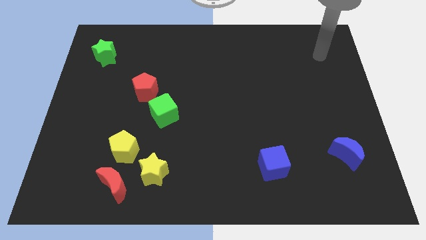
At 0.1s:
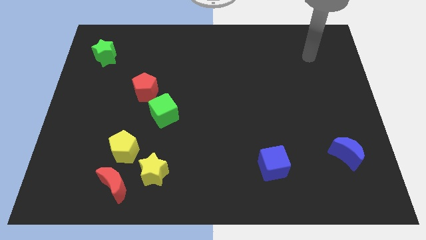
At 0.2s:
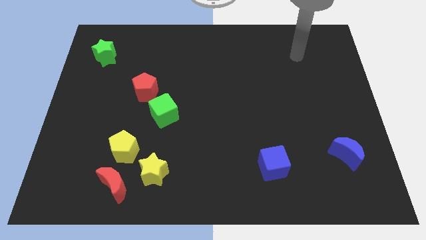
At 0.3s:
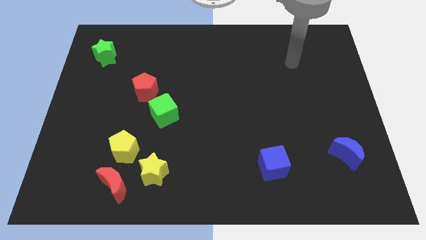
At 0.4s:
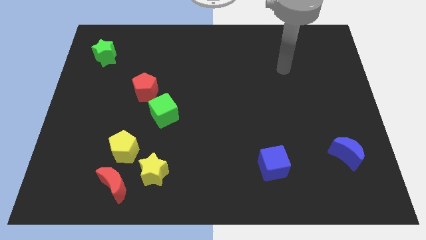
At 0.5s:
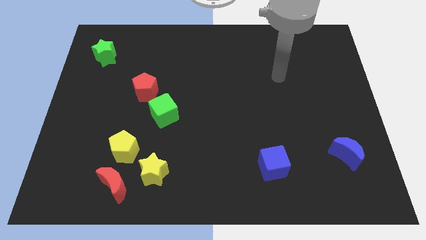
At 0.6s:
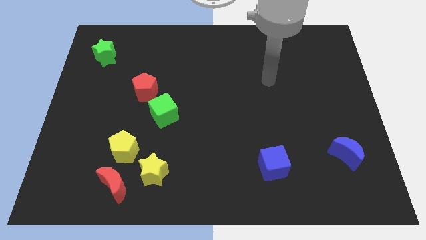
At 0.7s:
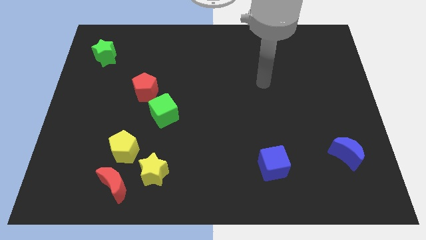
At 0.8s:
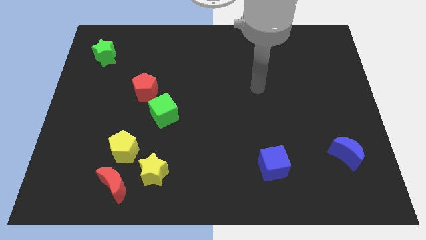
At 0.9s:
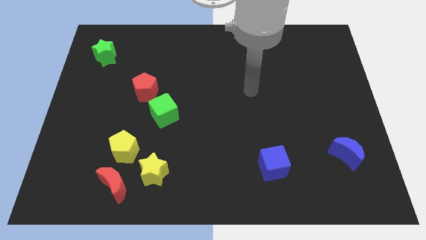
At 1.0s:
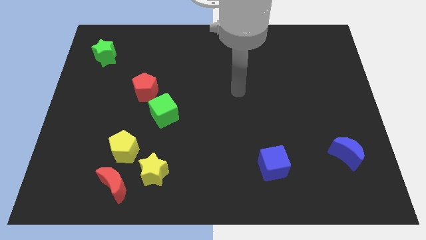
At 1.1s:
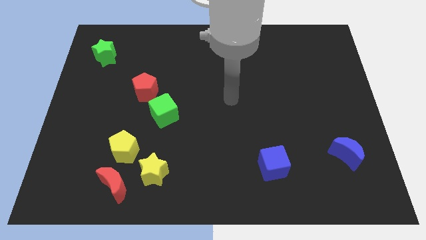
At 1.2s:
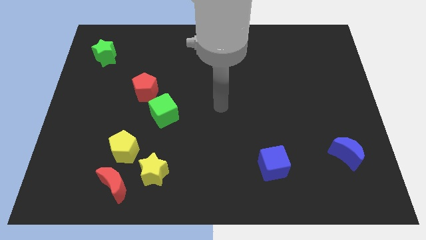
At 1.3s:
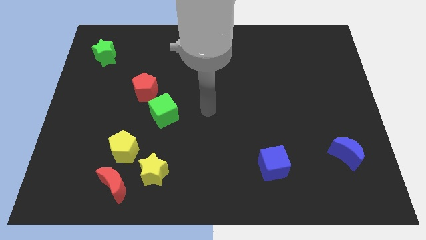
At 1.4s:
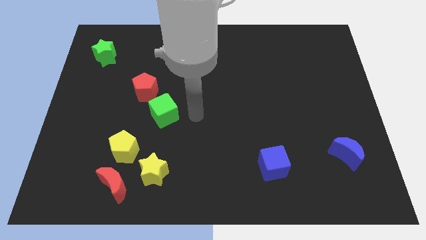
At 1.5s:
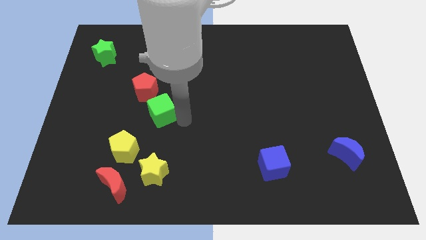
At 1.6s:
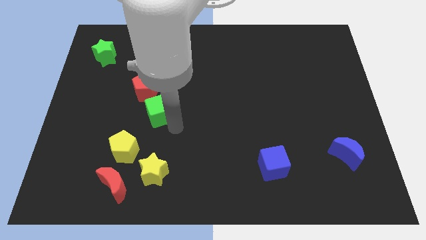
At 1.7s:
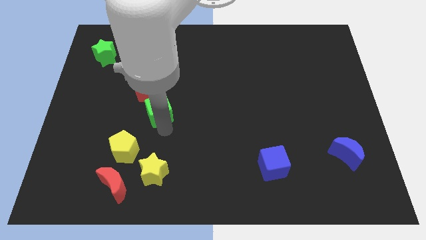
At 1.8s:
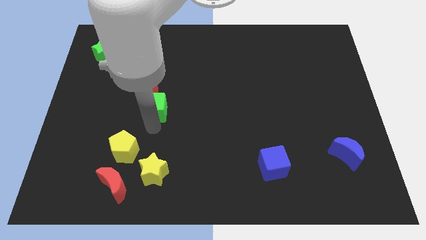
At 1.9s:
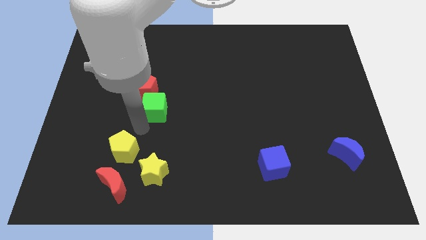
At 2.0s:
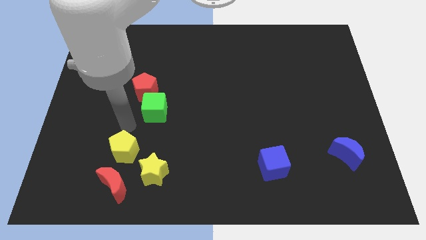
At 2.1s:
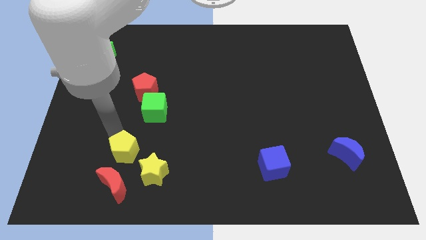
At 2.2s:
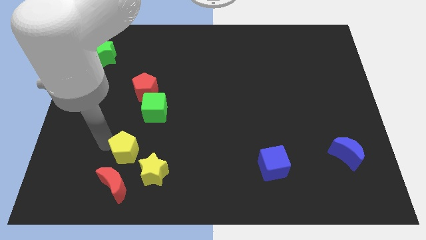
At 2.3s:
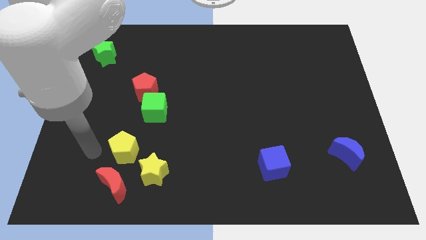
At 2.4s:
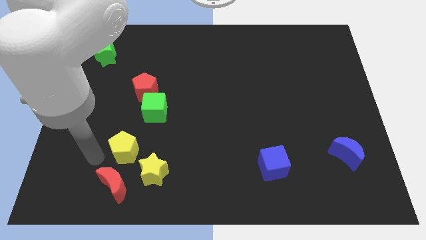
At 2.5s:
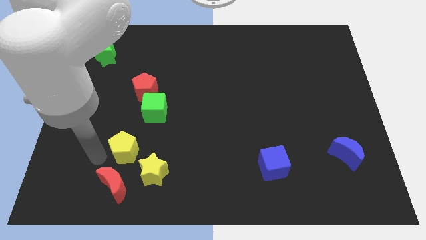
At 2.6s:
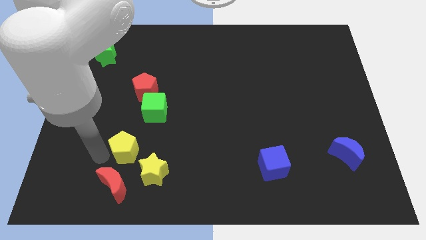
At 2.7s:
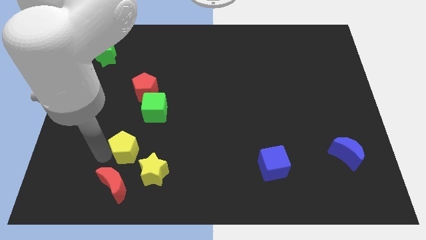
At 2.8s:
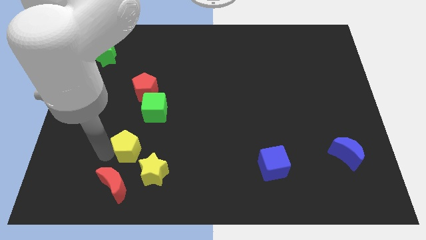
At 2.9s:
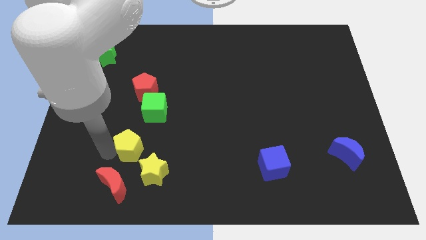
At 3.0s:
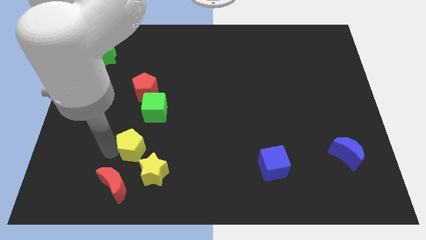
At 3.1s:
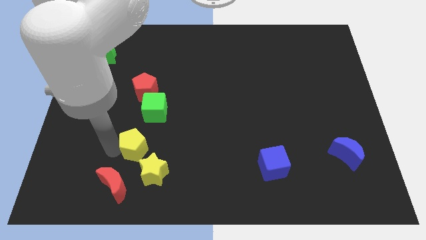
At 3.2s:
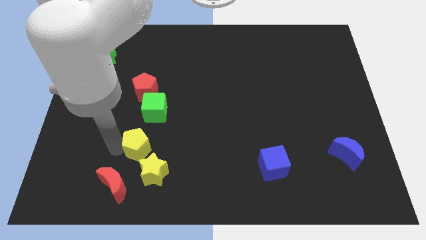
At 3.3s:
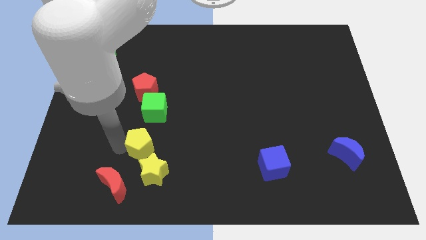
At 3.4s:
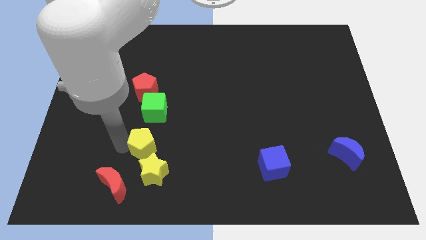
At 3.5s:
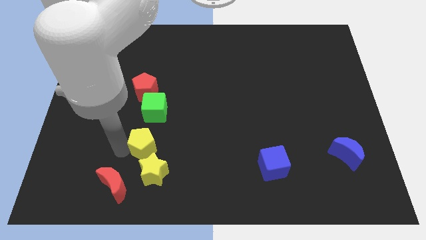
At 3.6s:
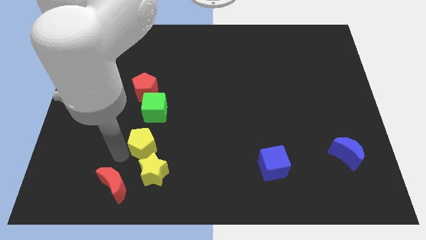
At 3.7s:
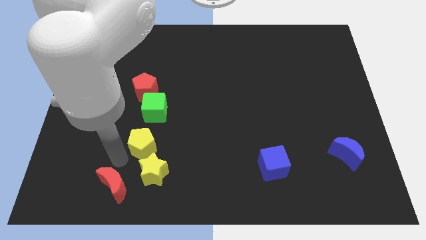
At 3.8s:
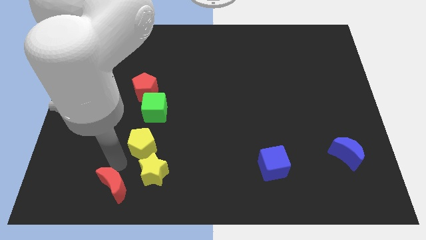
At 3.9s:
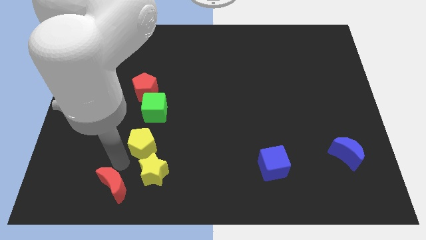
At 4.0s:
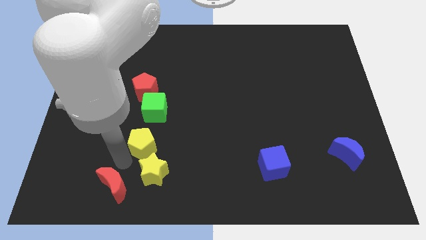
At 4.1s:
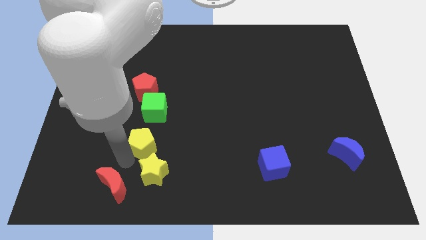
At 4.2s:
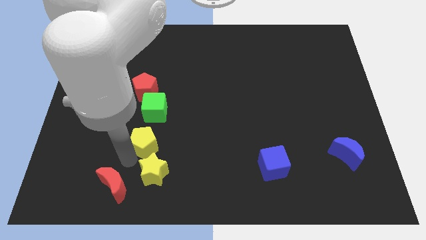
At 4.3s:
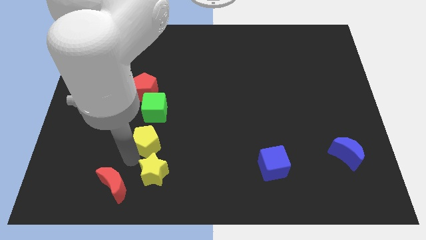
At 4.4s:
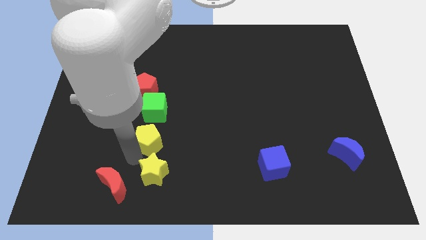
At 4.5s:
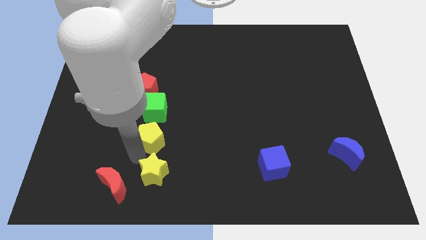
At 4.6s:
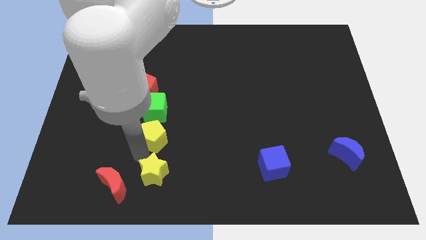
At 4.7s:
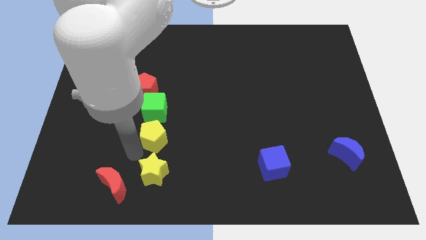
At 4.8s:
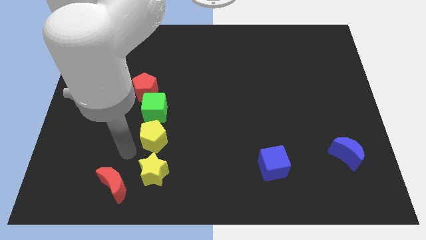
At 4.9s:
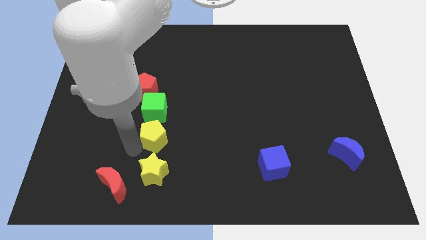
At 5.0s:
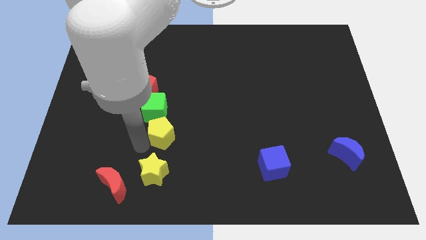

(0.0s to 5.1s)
slide the yellow pentagon somewhat up and then to the right

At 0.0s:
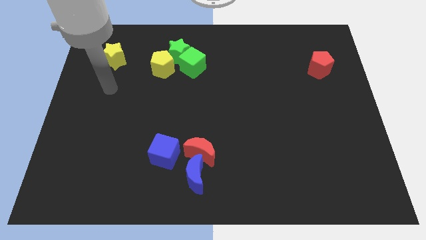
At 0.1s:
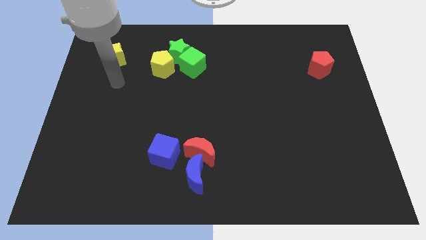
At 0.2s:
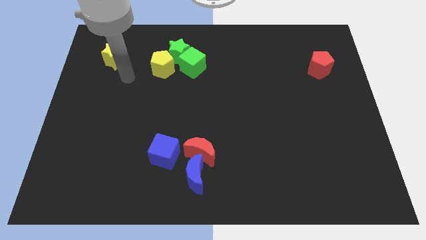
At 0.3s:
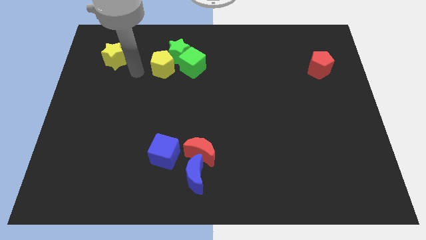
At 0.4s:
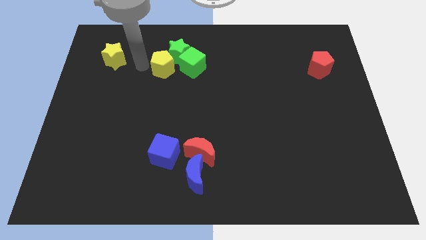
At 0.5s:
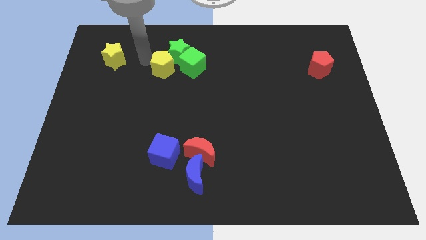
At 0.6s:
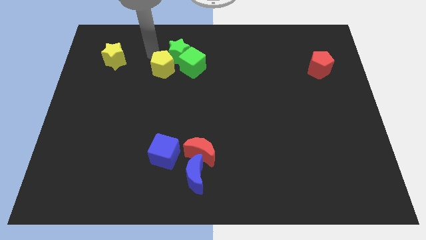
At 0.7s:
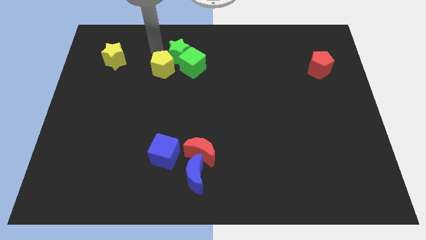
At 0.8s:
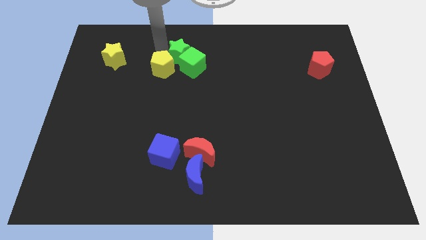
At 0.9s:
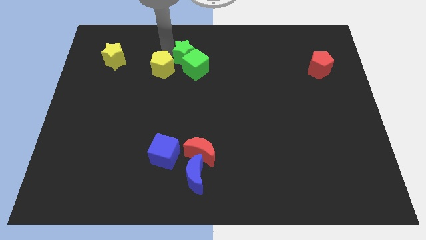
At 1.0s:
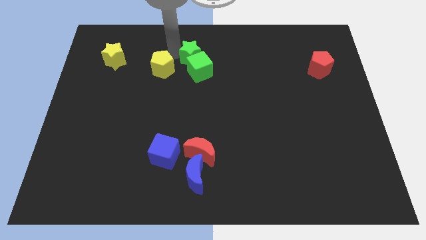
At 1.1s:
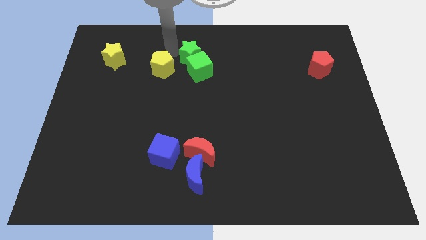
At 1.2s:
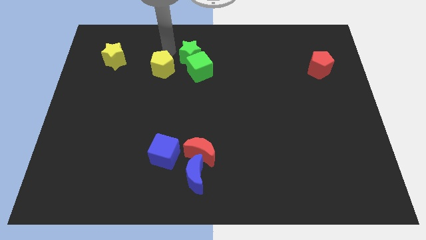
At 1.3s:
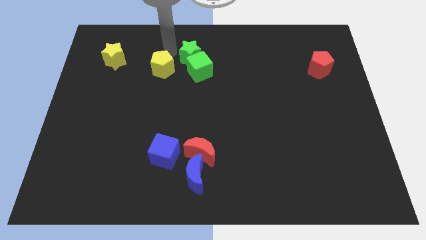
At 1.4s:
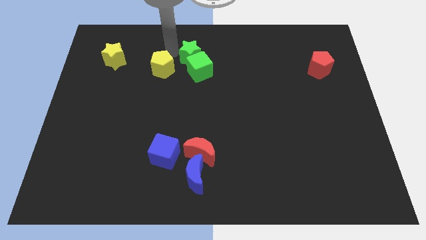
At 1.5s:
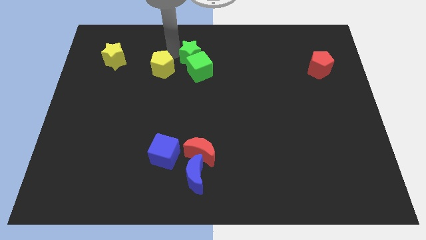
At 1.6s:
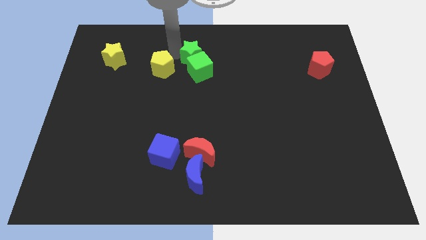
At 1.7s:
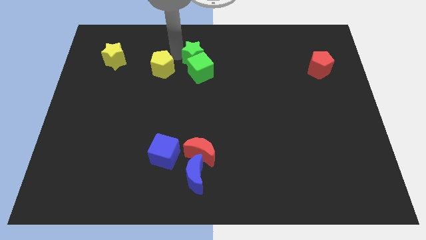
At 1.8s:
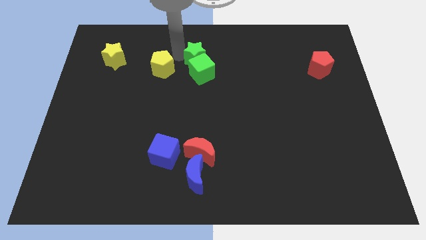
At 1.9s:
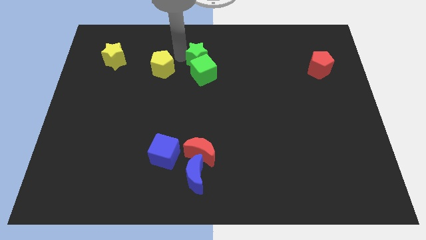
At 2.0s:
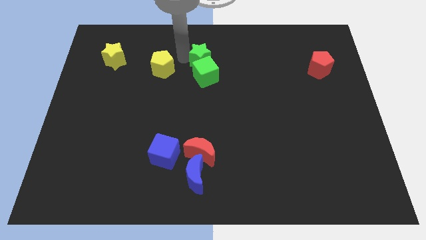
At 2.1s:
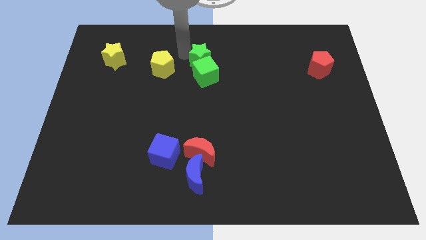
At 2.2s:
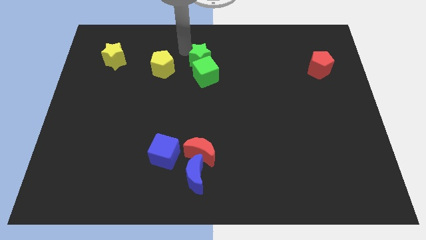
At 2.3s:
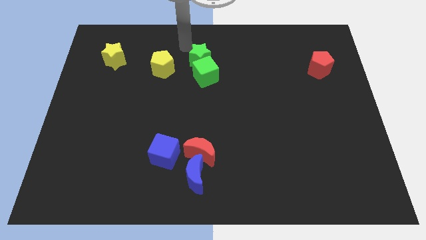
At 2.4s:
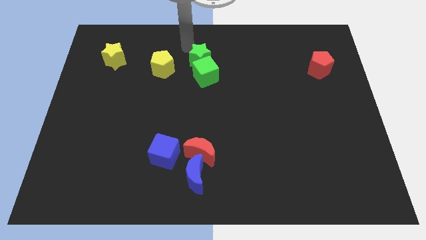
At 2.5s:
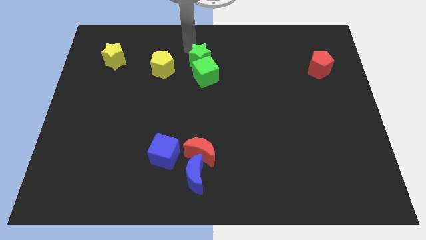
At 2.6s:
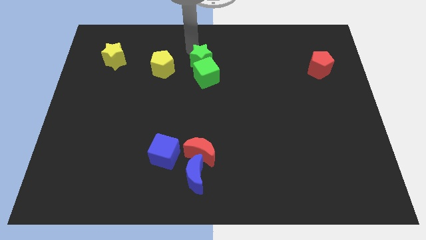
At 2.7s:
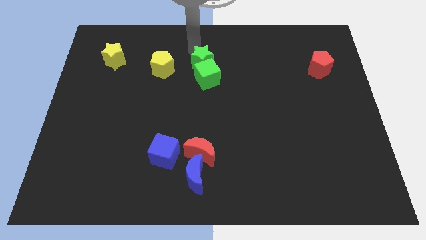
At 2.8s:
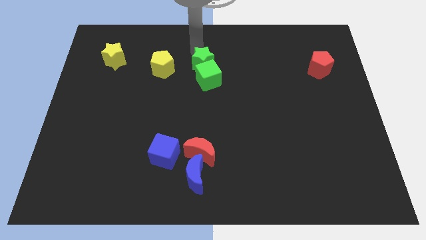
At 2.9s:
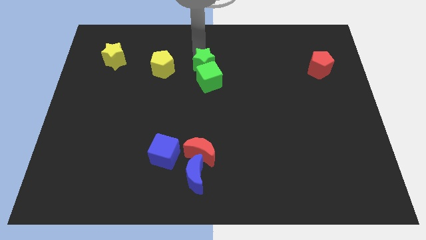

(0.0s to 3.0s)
push the green star diagonally downwards and to the right a little
